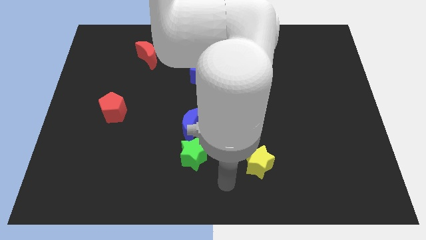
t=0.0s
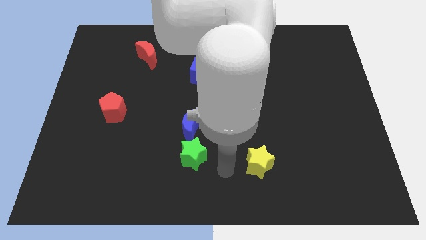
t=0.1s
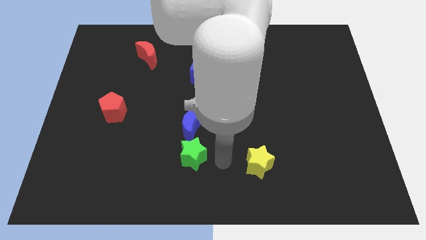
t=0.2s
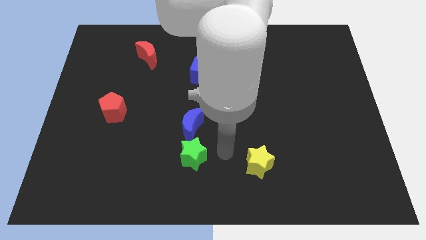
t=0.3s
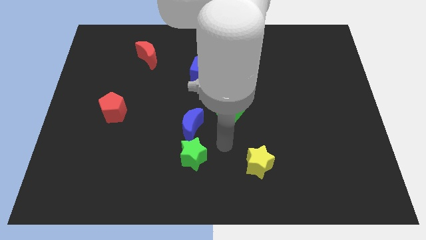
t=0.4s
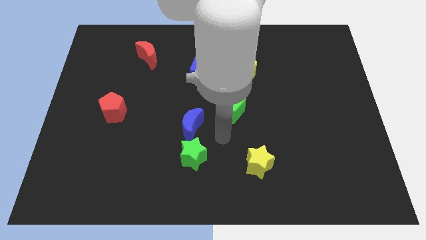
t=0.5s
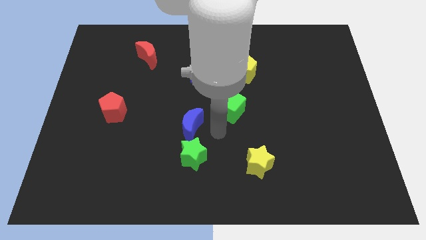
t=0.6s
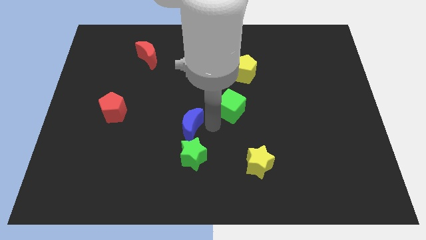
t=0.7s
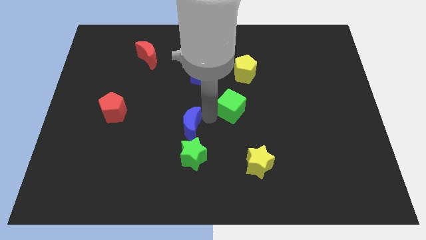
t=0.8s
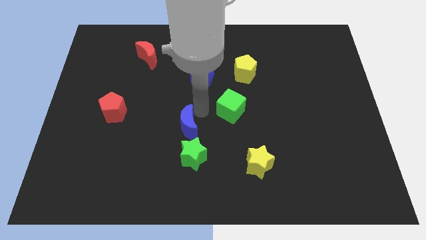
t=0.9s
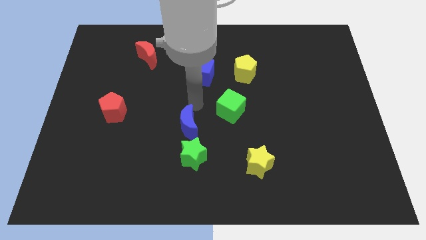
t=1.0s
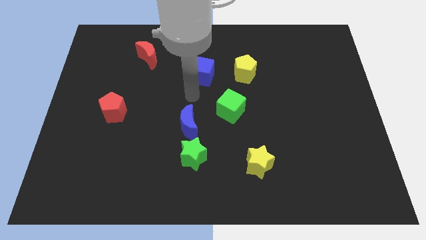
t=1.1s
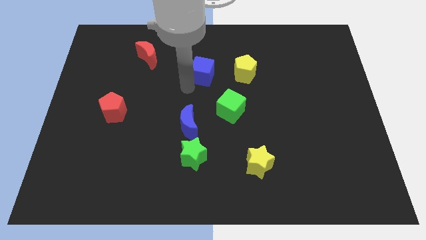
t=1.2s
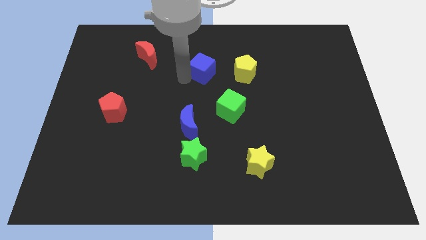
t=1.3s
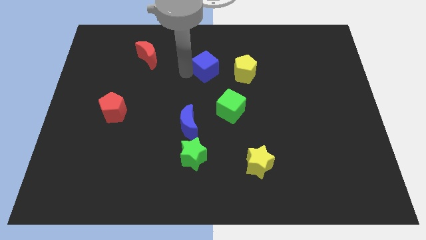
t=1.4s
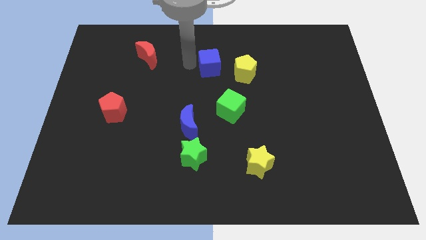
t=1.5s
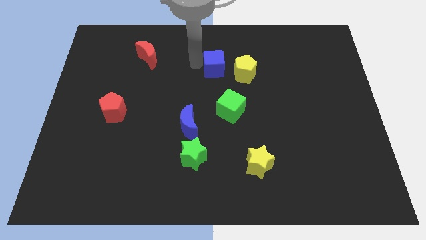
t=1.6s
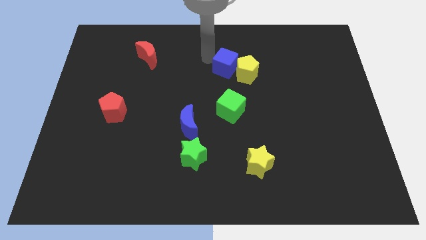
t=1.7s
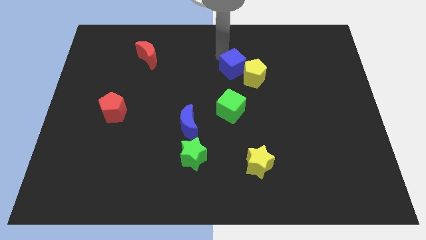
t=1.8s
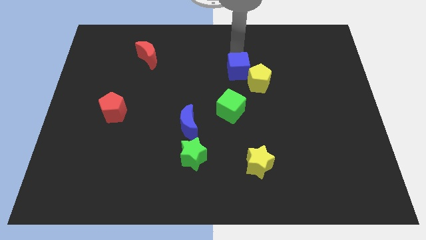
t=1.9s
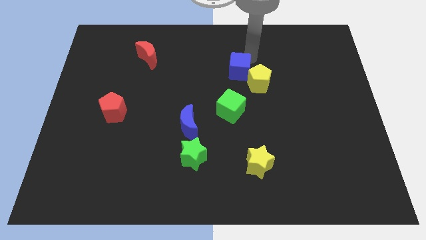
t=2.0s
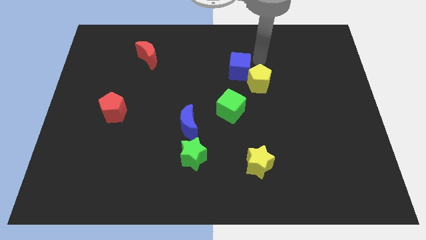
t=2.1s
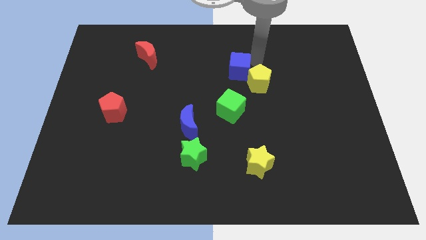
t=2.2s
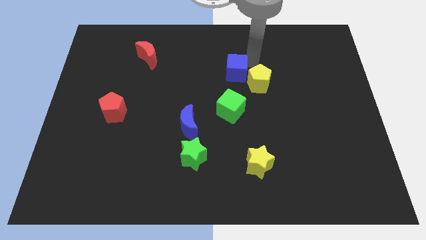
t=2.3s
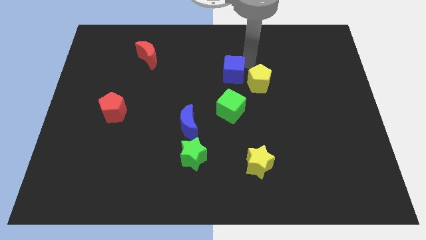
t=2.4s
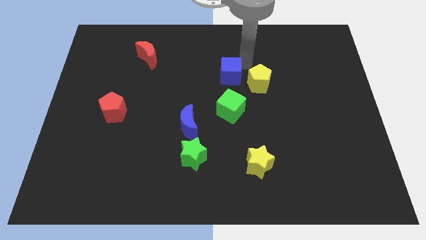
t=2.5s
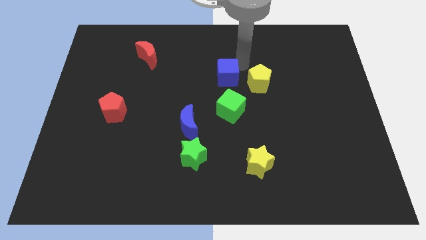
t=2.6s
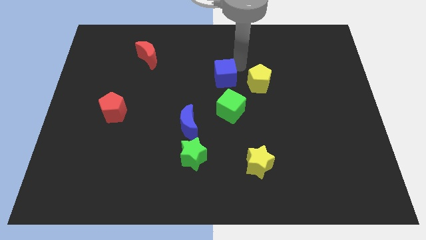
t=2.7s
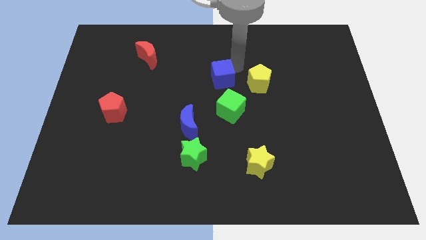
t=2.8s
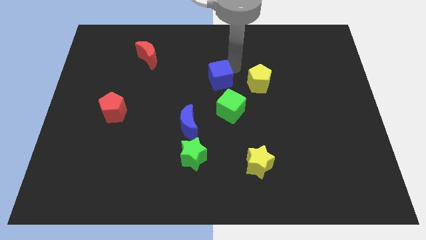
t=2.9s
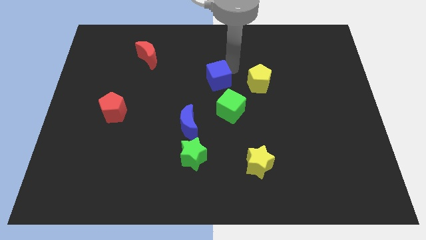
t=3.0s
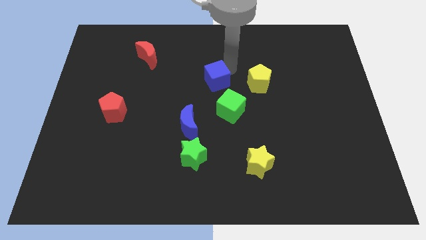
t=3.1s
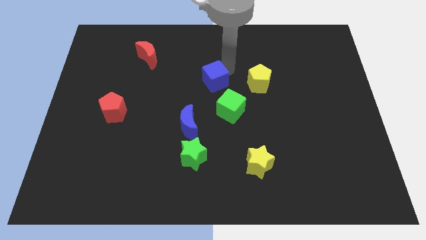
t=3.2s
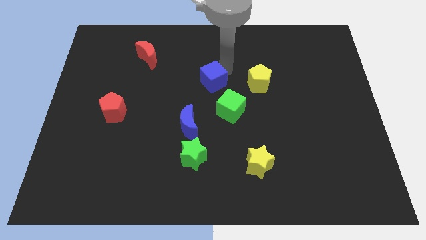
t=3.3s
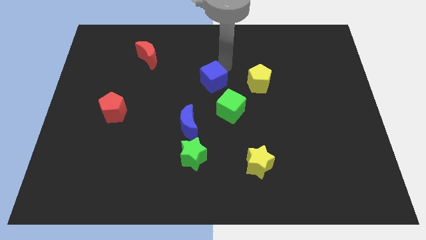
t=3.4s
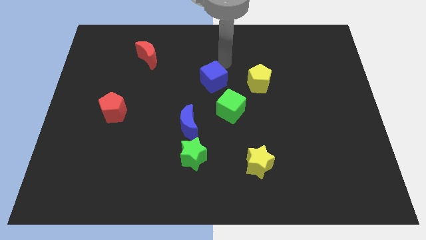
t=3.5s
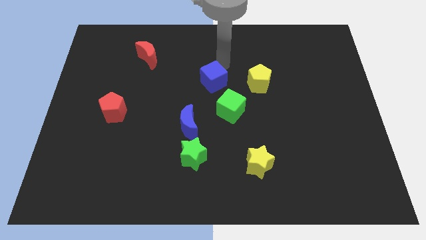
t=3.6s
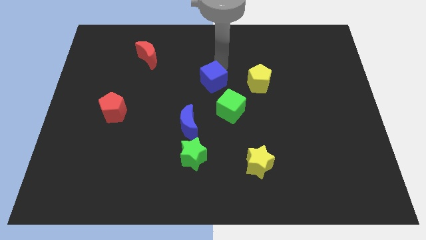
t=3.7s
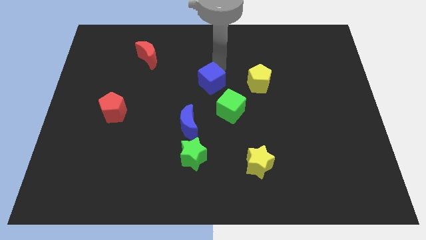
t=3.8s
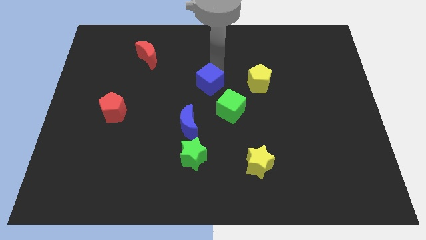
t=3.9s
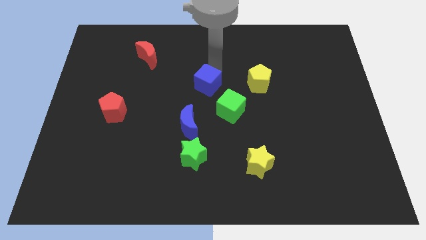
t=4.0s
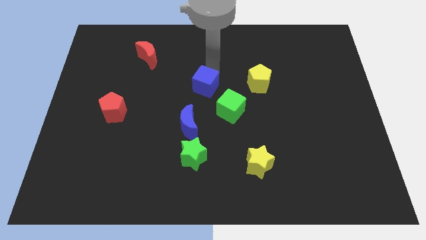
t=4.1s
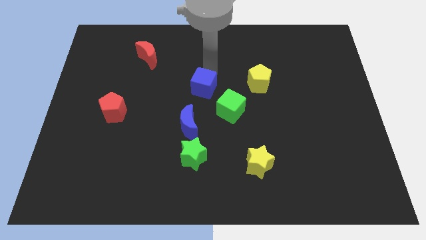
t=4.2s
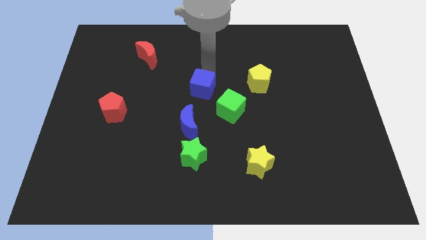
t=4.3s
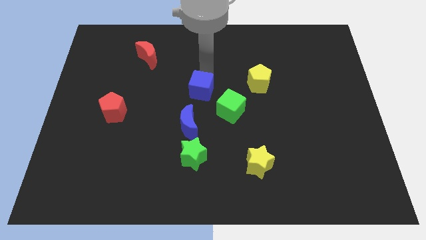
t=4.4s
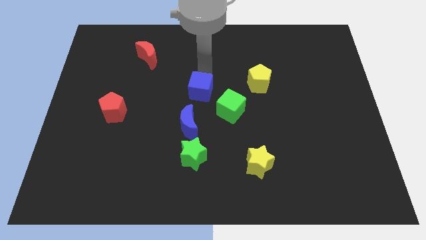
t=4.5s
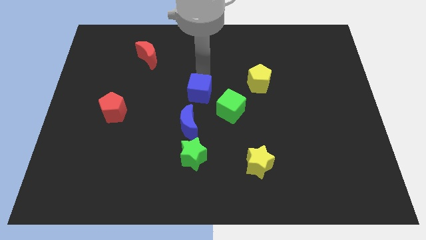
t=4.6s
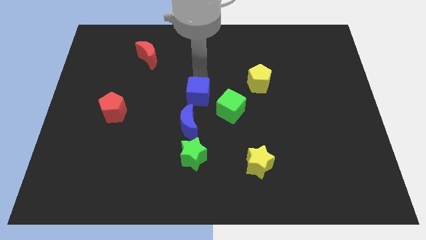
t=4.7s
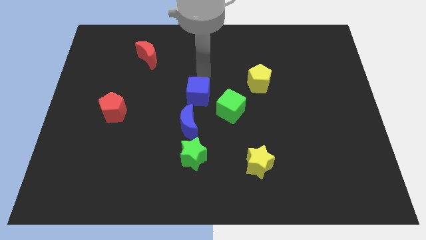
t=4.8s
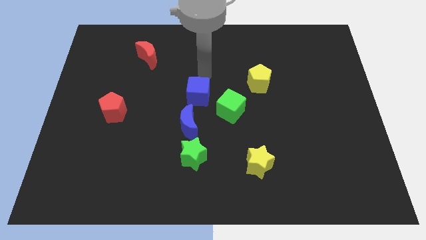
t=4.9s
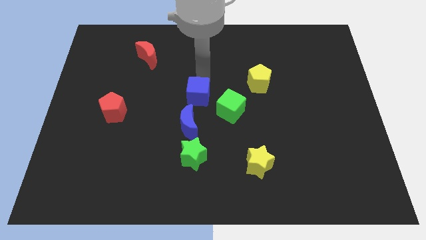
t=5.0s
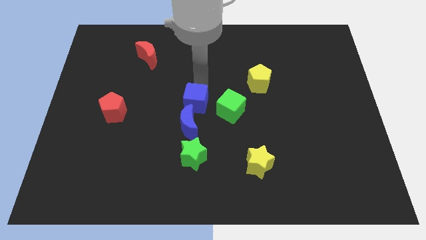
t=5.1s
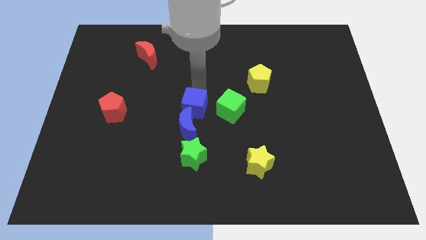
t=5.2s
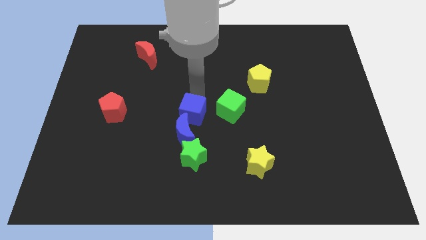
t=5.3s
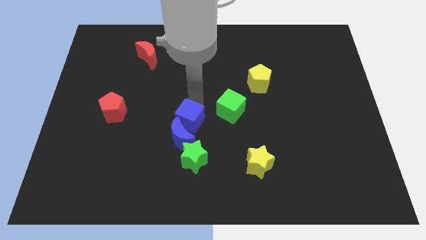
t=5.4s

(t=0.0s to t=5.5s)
push the blue cube towards the blue moon
